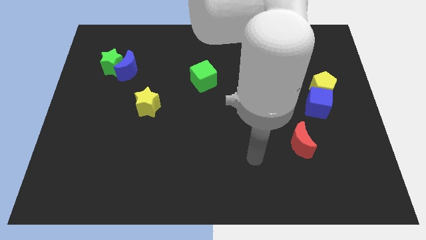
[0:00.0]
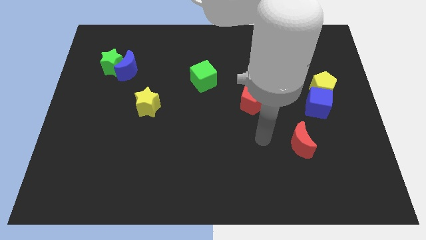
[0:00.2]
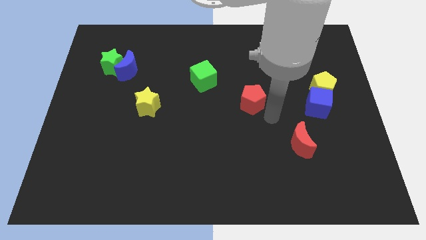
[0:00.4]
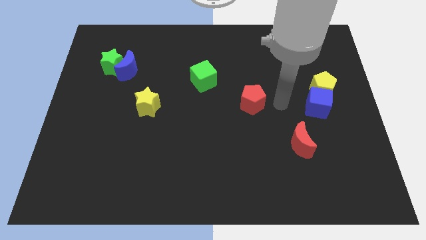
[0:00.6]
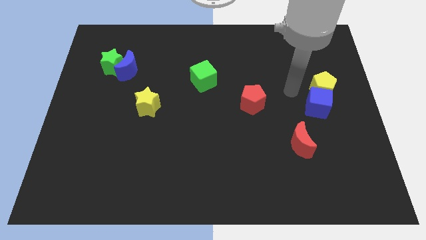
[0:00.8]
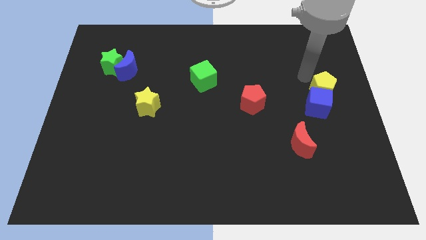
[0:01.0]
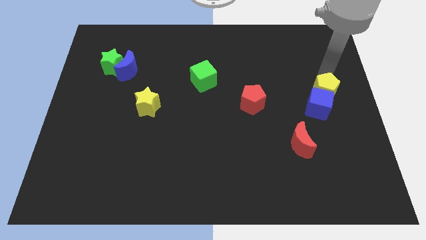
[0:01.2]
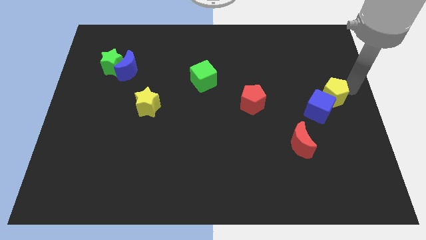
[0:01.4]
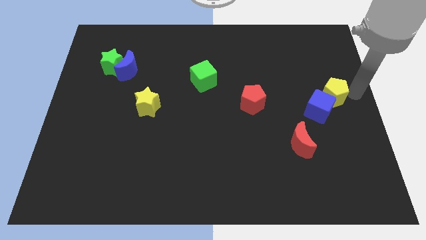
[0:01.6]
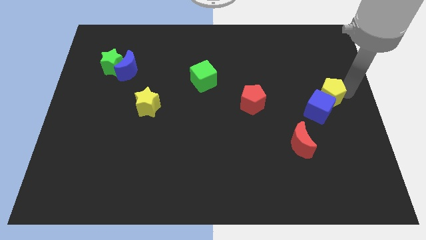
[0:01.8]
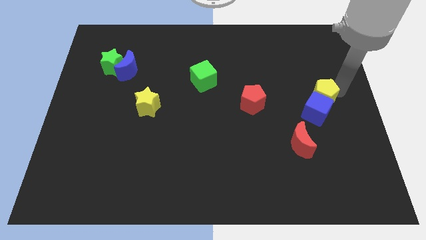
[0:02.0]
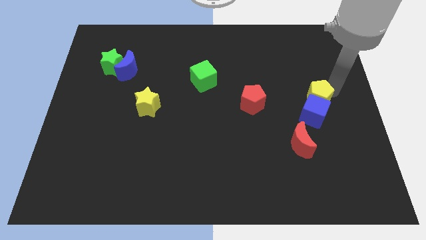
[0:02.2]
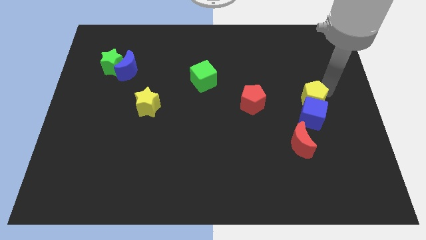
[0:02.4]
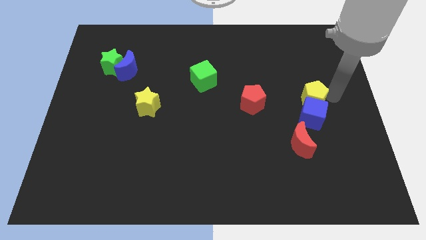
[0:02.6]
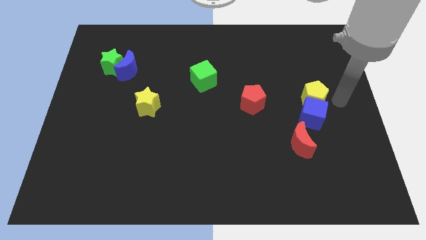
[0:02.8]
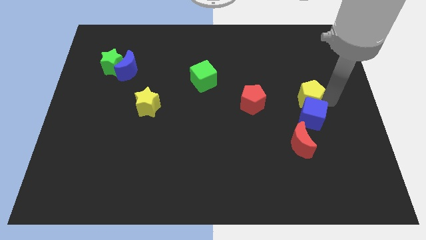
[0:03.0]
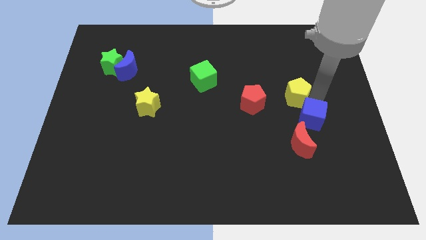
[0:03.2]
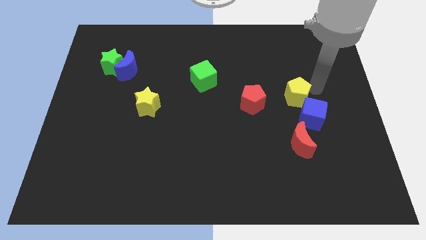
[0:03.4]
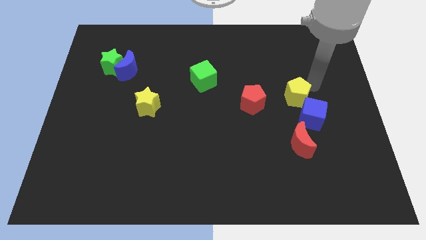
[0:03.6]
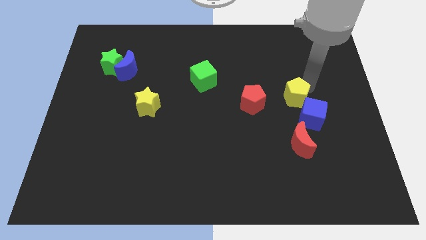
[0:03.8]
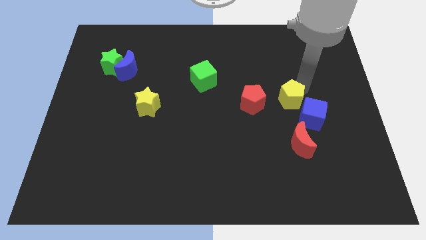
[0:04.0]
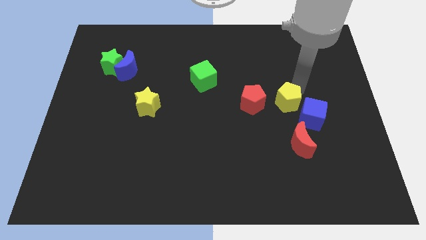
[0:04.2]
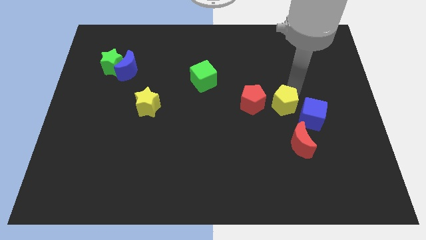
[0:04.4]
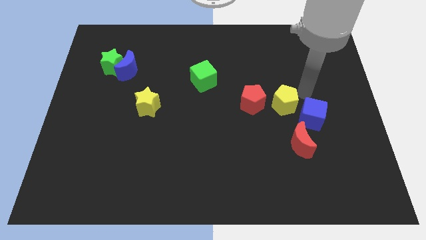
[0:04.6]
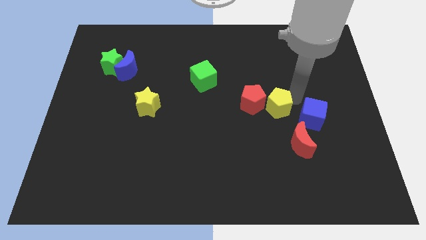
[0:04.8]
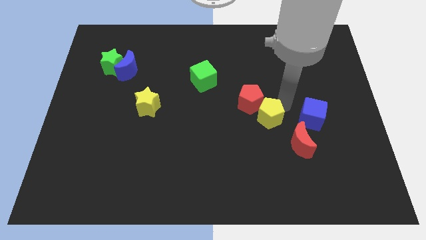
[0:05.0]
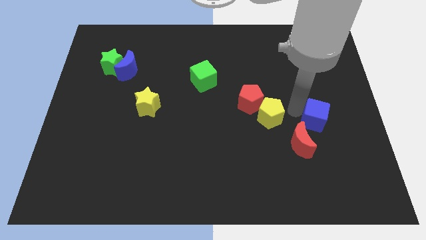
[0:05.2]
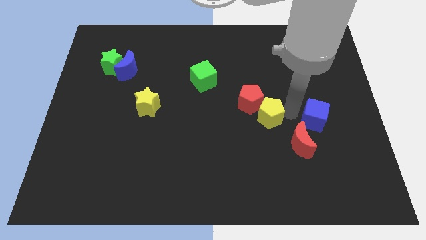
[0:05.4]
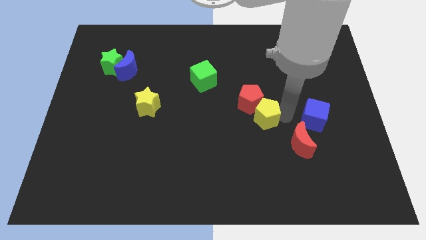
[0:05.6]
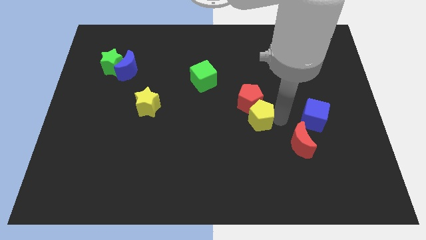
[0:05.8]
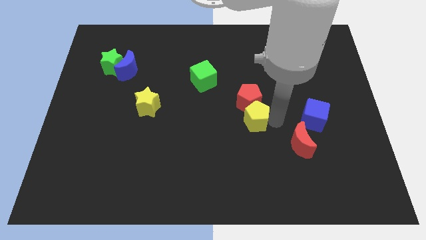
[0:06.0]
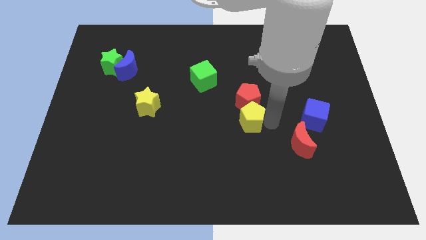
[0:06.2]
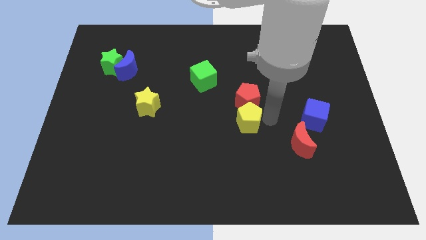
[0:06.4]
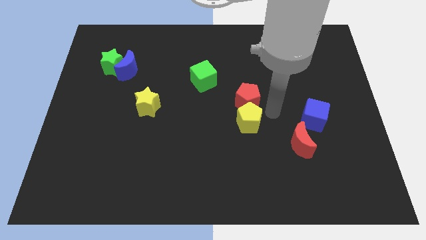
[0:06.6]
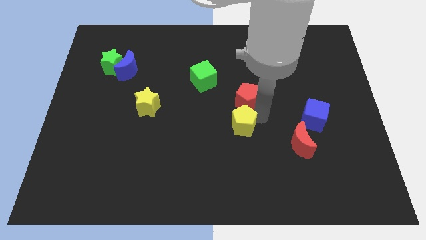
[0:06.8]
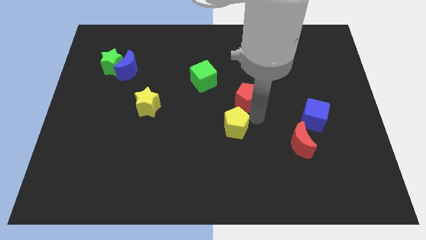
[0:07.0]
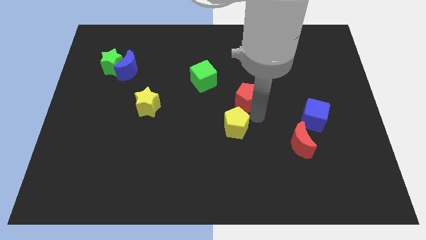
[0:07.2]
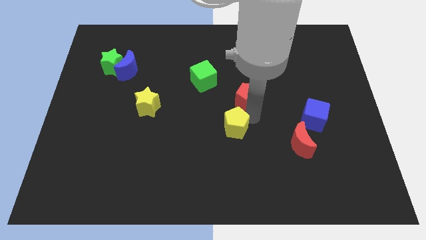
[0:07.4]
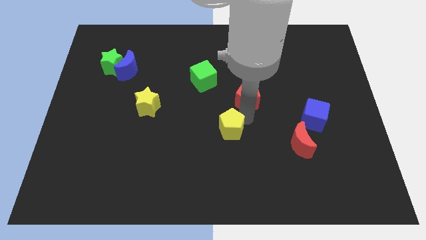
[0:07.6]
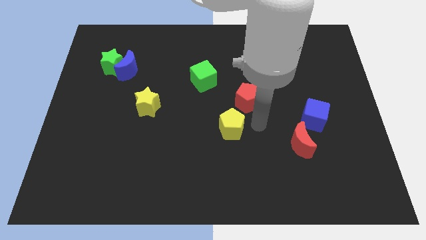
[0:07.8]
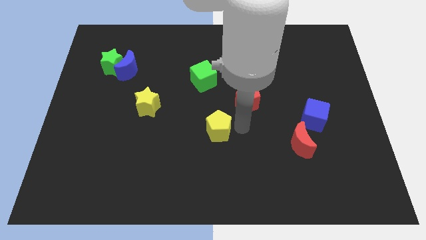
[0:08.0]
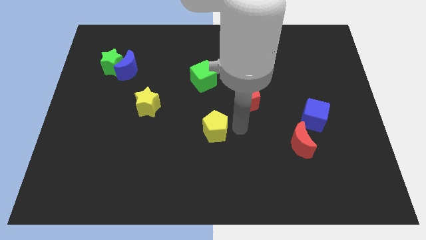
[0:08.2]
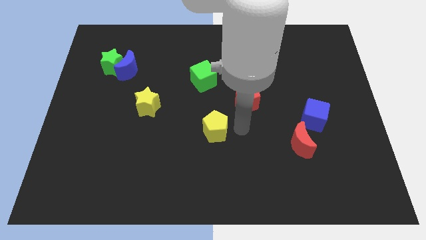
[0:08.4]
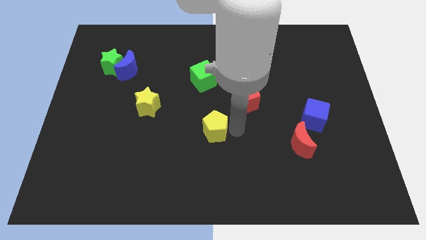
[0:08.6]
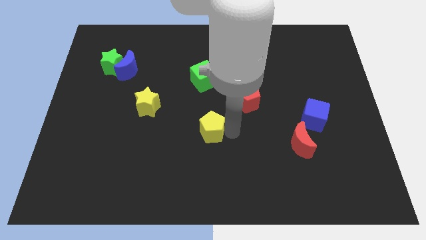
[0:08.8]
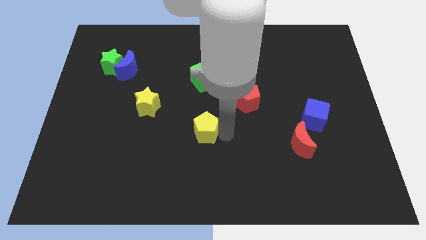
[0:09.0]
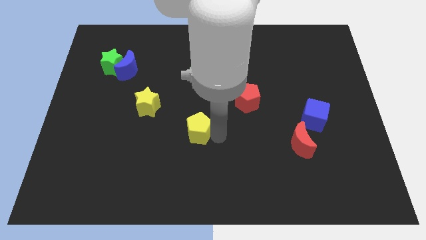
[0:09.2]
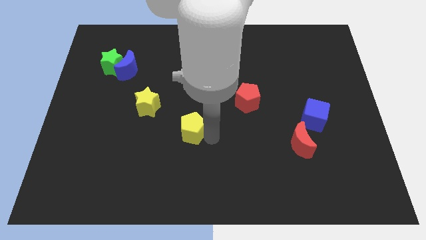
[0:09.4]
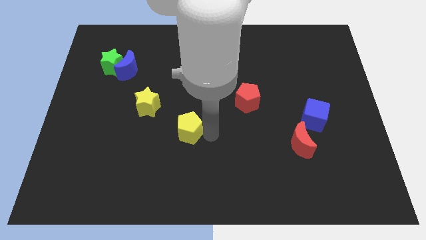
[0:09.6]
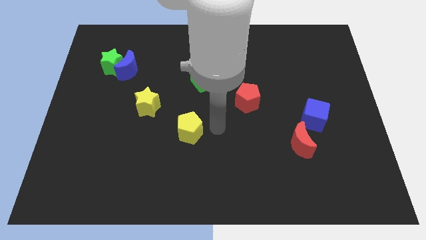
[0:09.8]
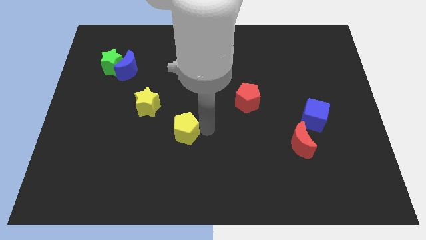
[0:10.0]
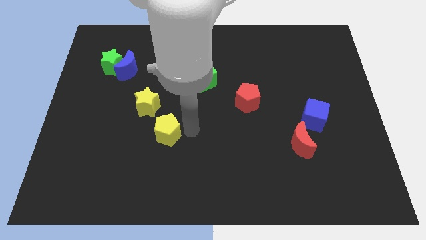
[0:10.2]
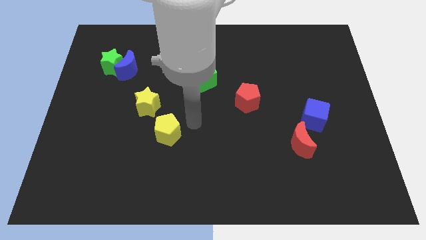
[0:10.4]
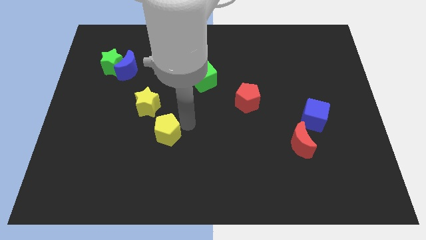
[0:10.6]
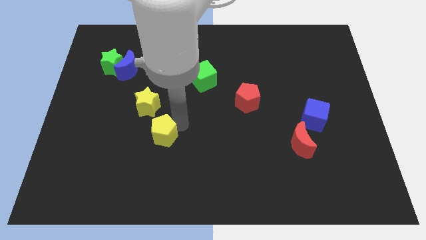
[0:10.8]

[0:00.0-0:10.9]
put the yellow pentagon to the bottom side of the yellow star
